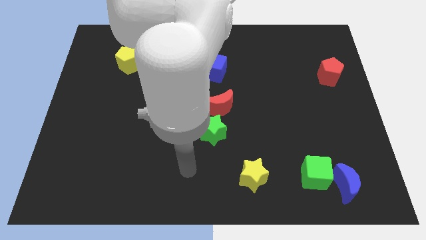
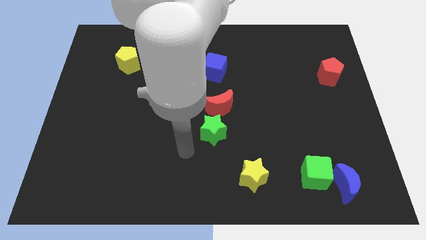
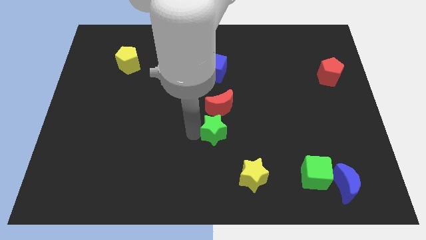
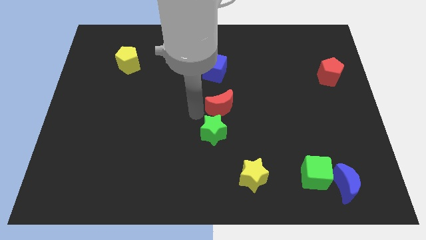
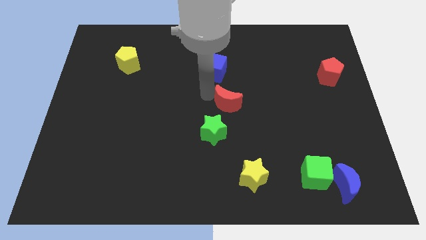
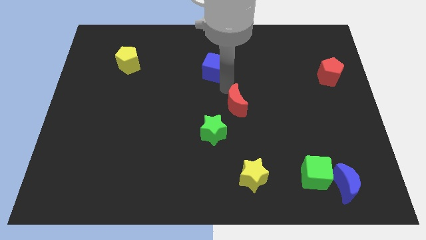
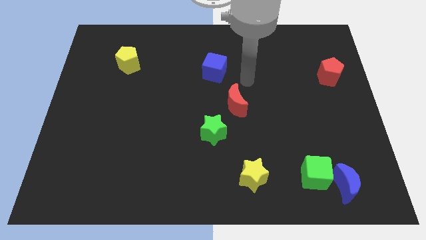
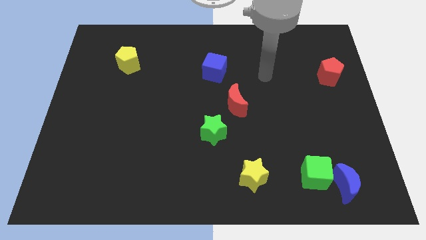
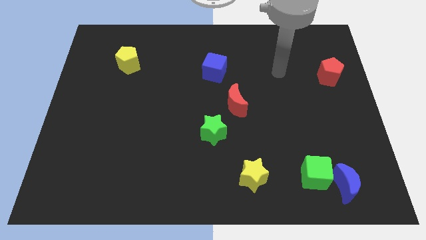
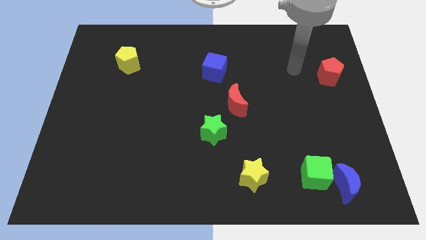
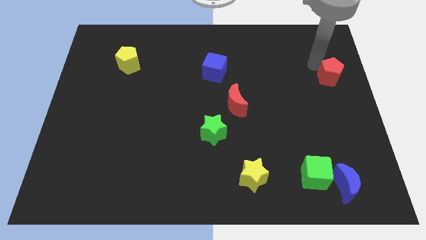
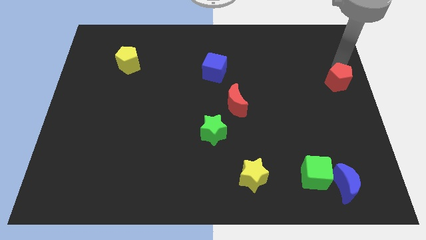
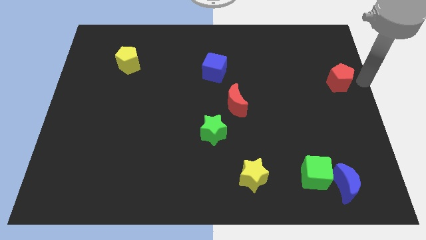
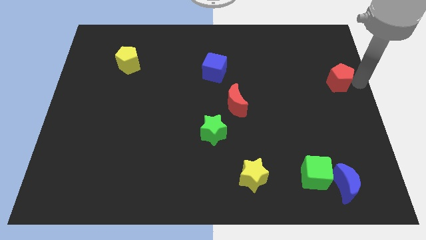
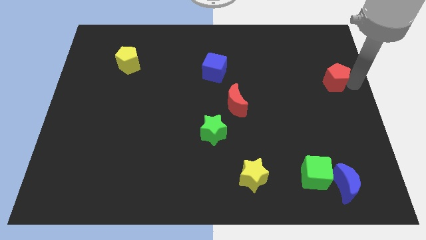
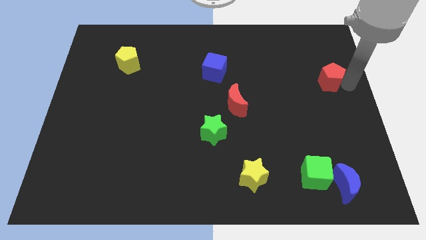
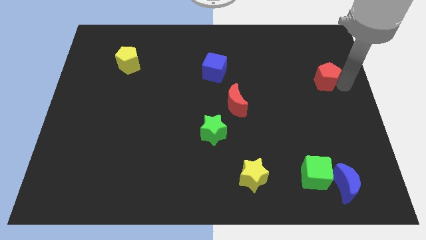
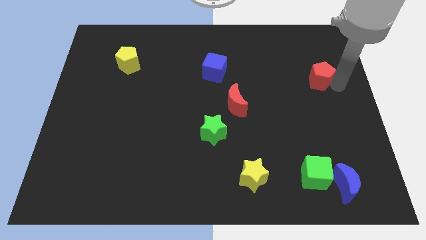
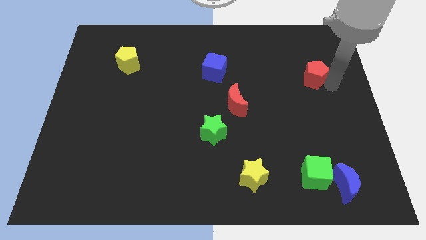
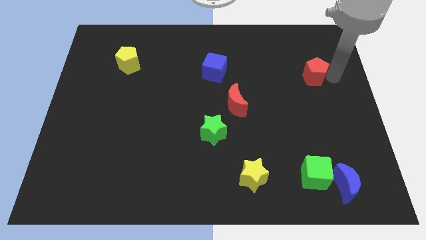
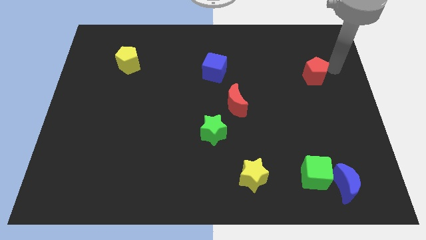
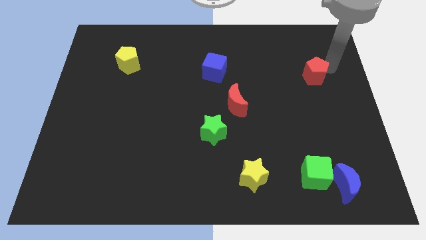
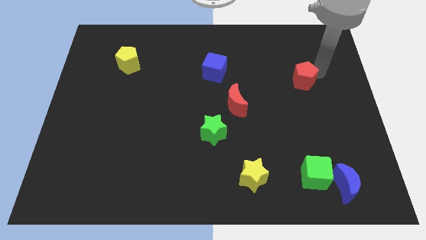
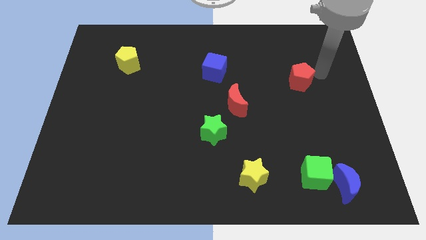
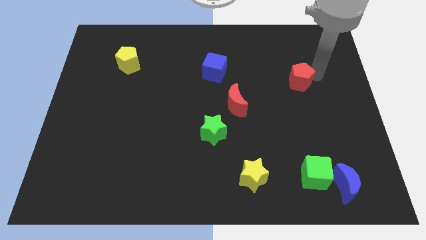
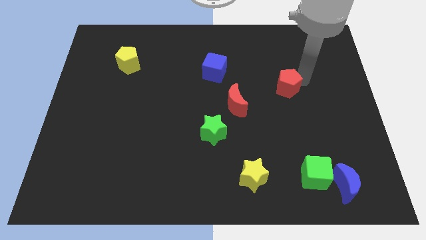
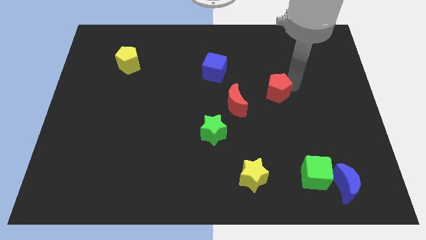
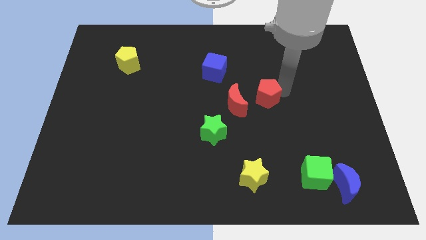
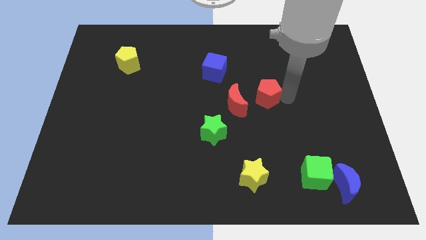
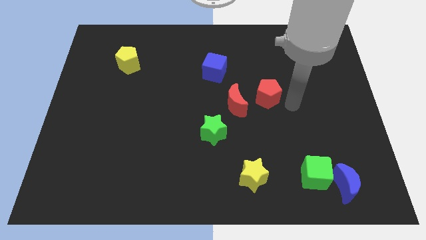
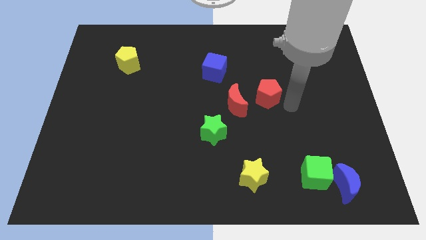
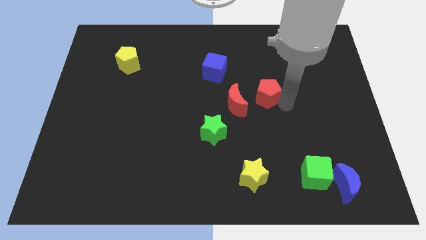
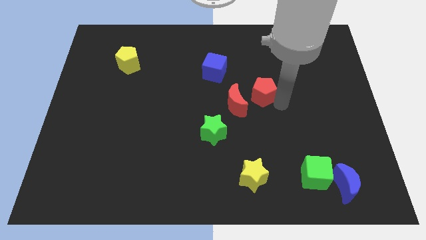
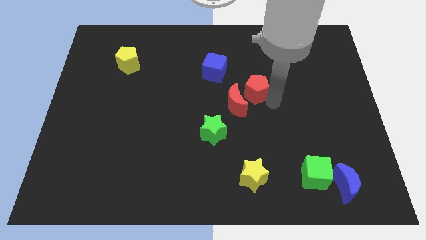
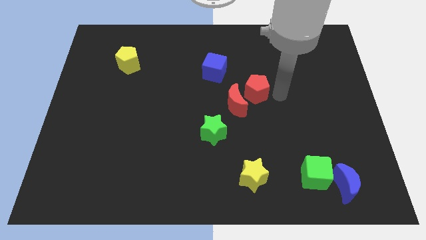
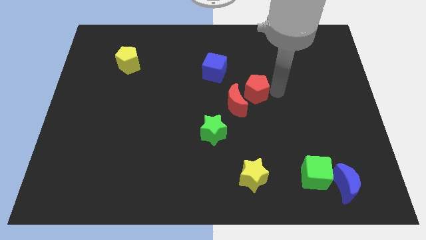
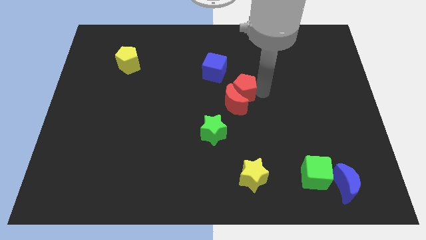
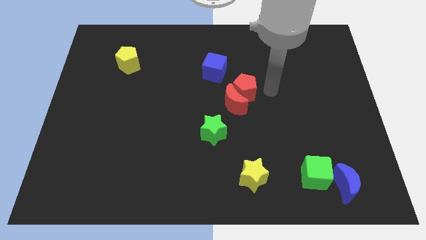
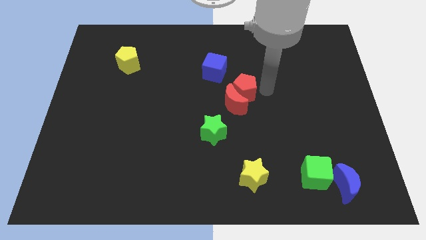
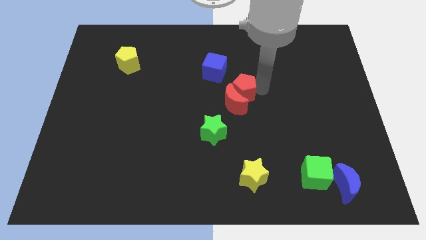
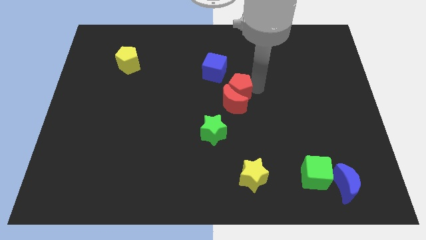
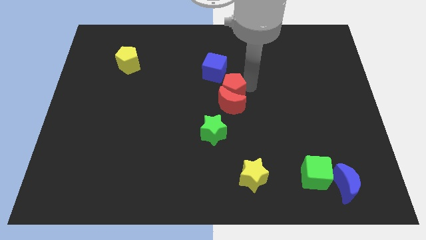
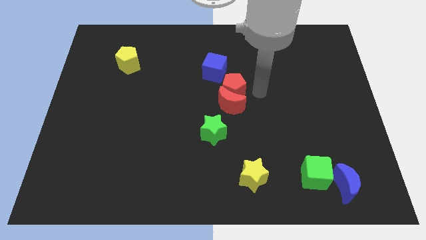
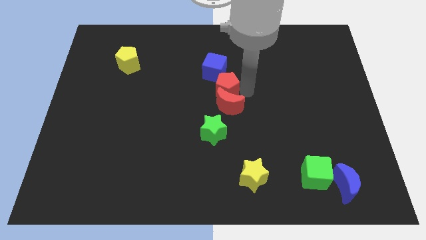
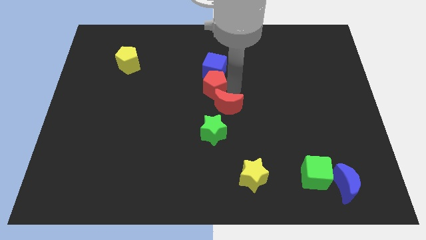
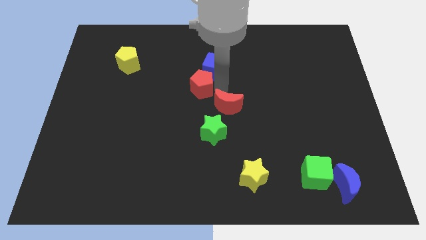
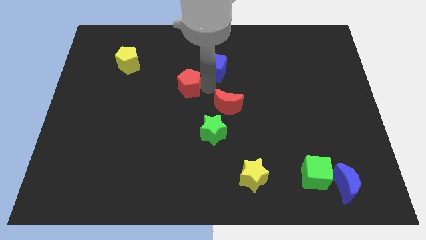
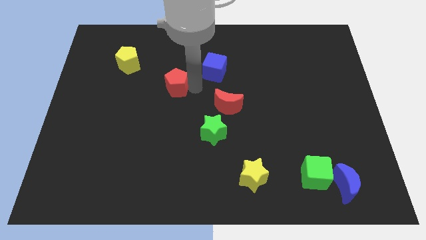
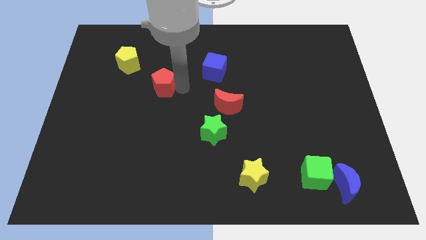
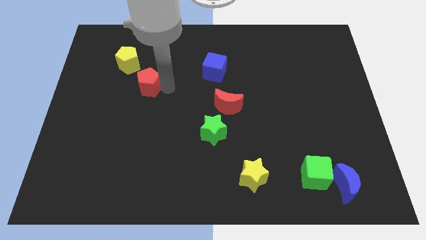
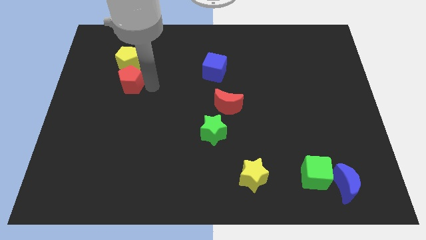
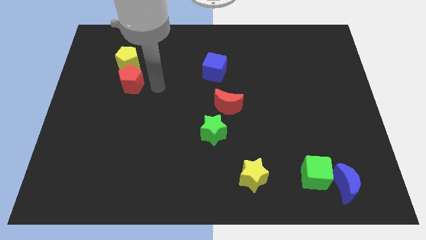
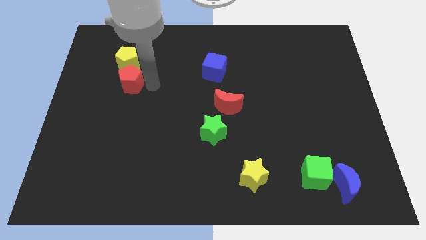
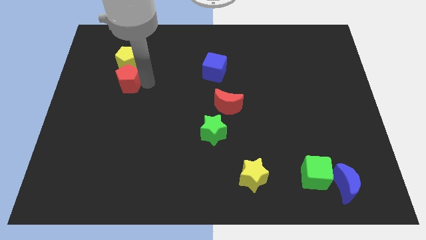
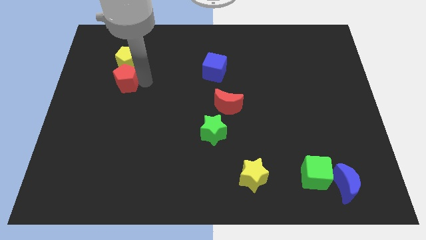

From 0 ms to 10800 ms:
put the red pentagon to the bottom left of the yellow pentagon

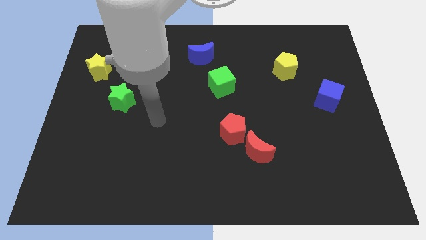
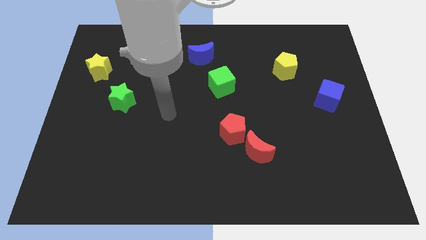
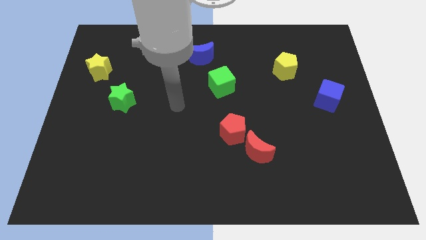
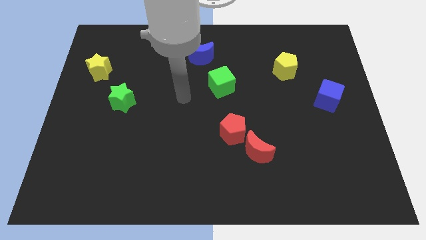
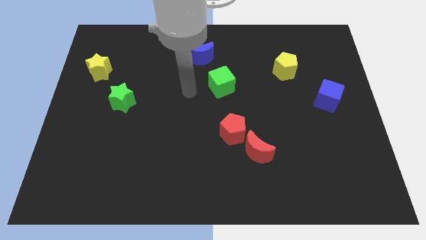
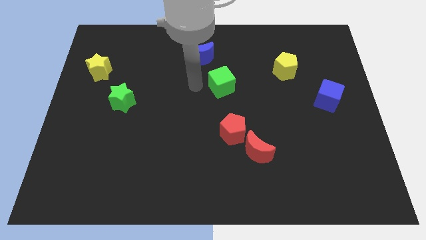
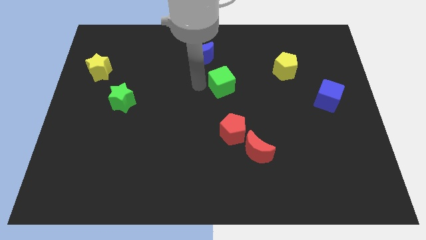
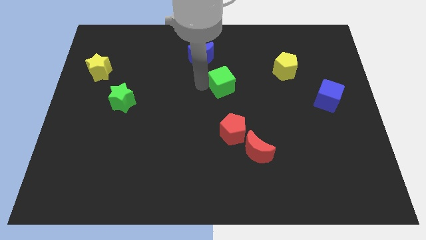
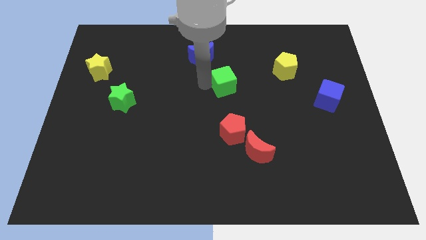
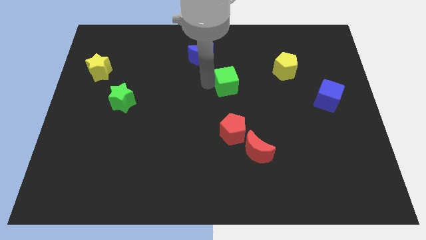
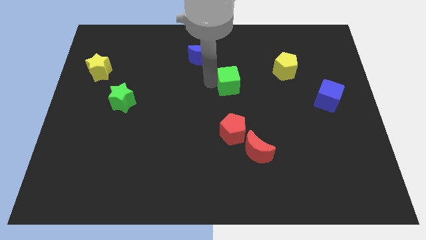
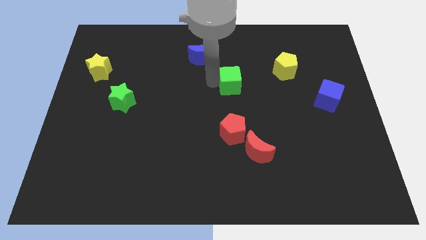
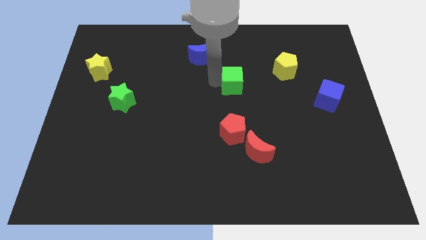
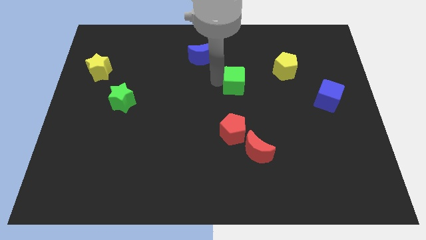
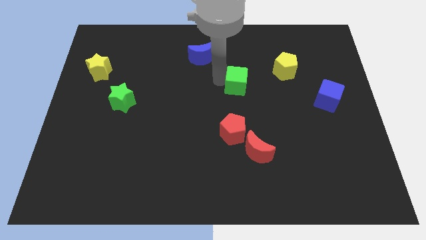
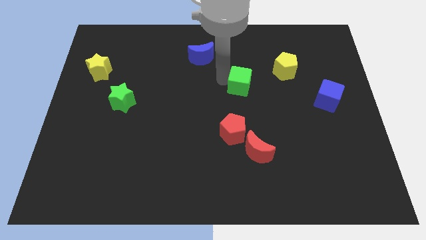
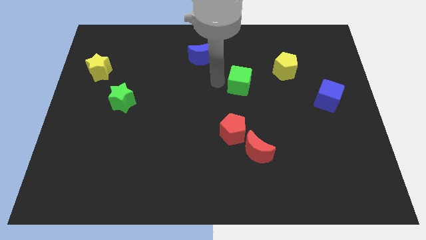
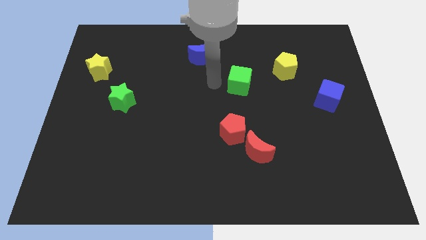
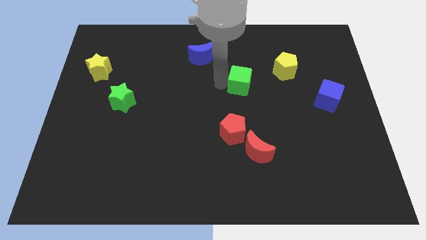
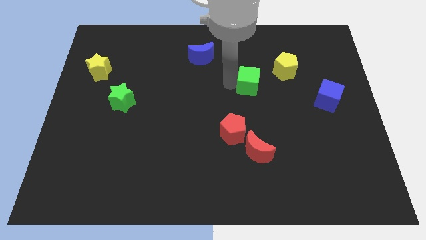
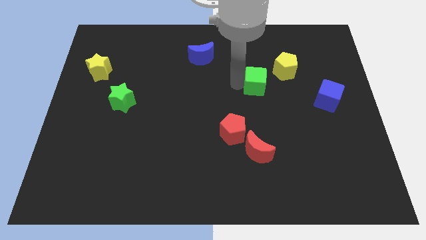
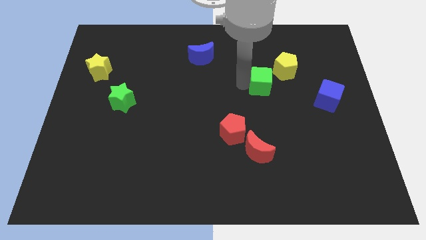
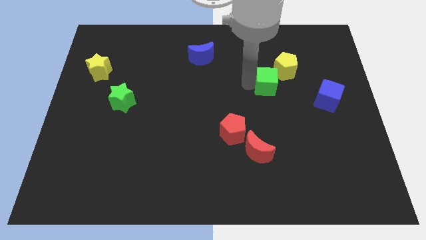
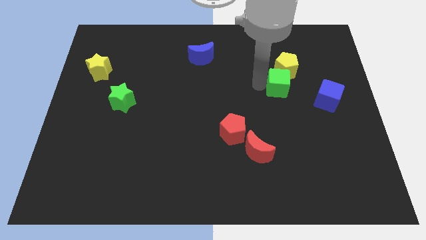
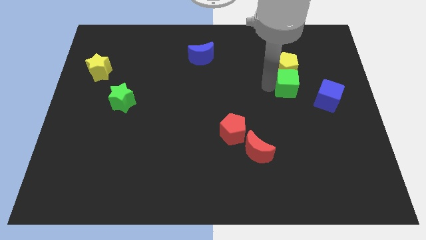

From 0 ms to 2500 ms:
move the green cube to the bottom right of the yellow pentagon
